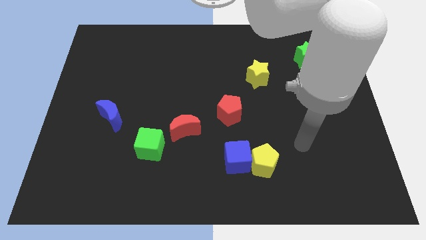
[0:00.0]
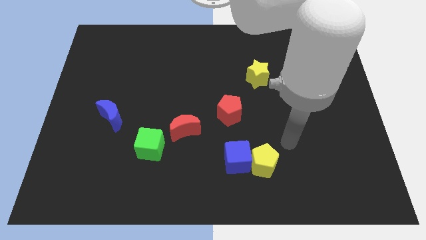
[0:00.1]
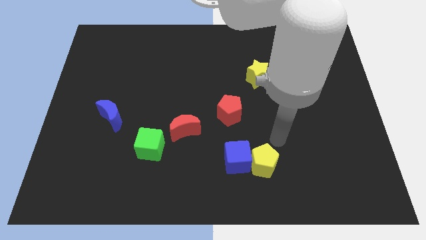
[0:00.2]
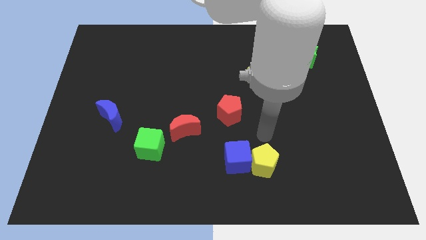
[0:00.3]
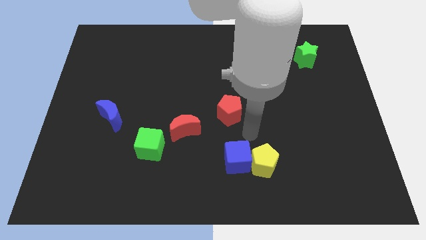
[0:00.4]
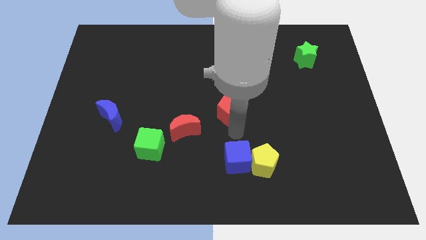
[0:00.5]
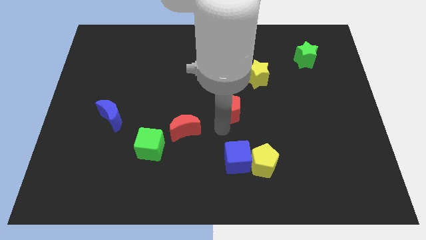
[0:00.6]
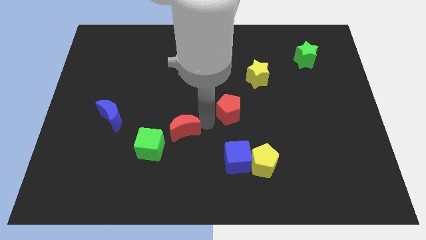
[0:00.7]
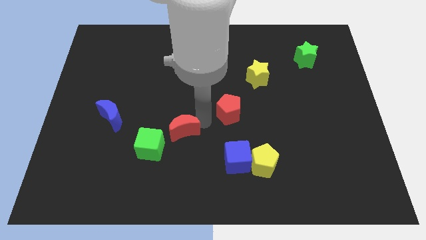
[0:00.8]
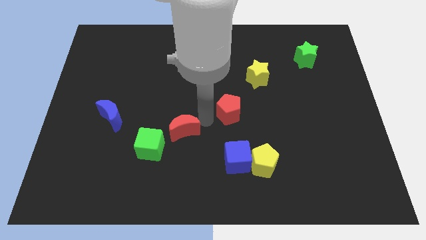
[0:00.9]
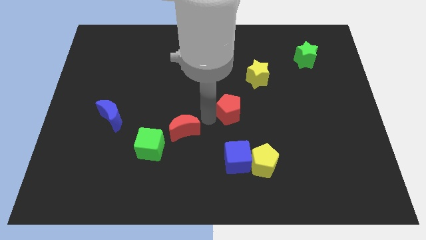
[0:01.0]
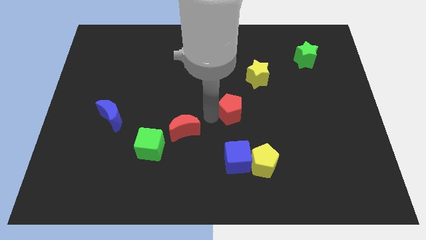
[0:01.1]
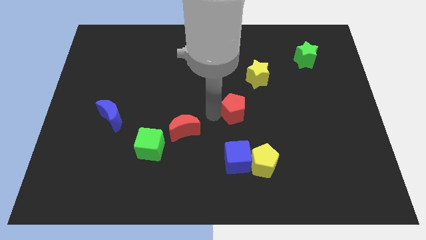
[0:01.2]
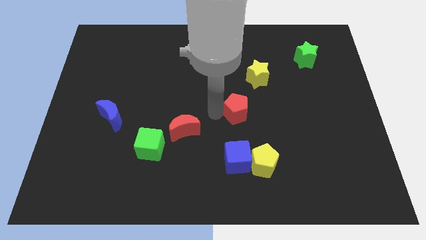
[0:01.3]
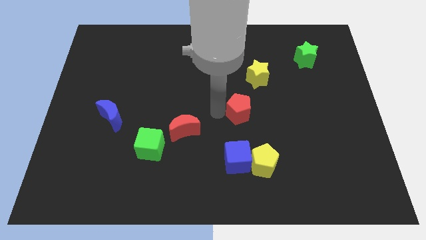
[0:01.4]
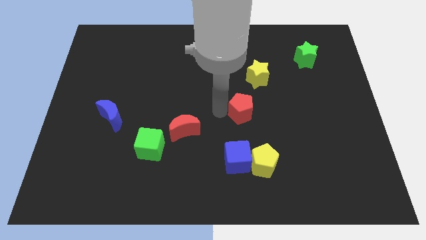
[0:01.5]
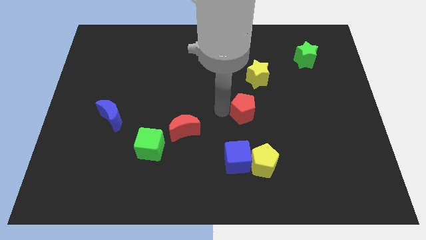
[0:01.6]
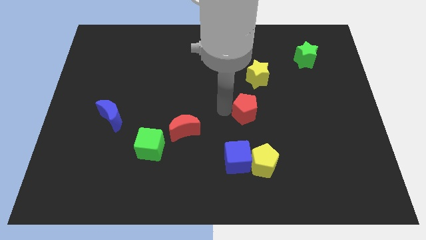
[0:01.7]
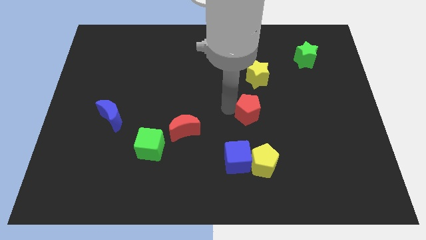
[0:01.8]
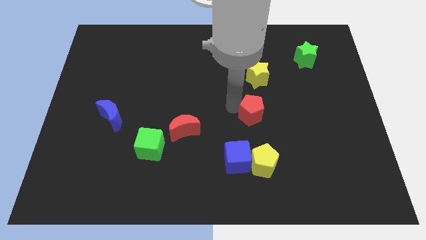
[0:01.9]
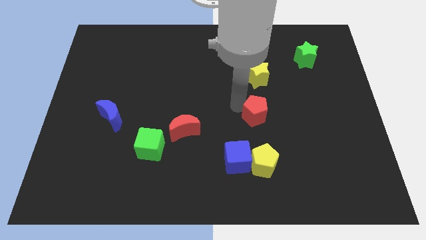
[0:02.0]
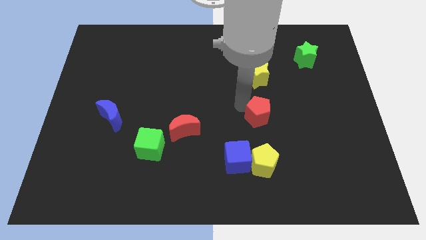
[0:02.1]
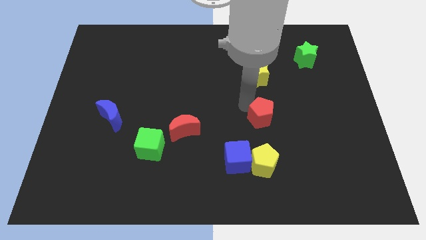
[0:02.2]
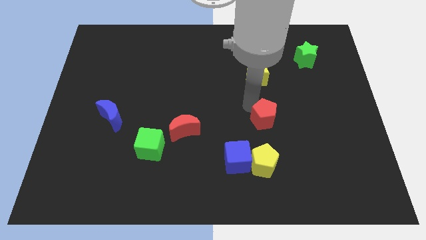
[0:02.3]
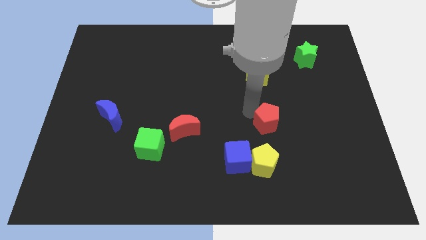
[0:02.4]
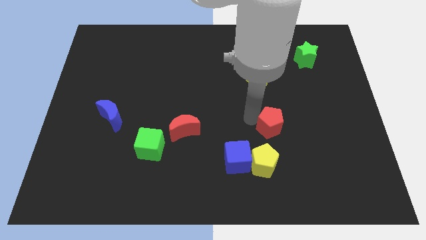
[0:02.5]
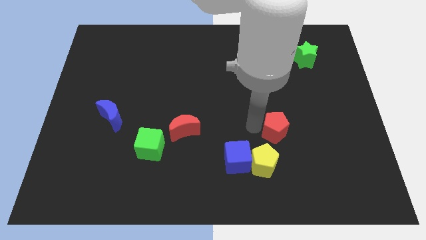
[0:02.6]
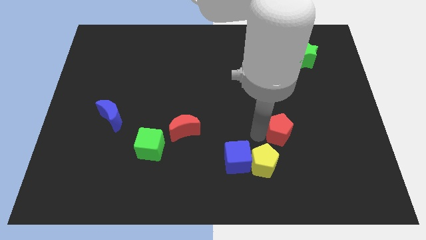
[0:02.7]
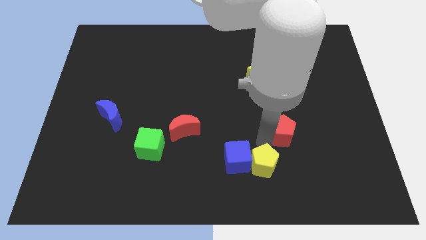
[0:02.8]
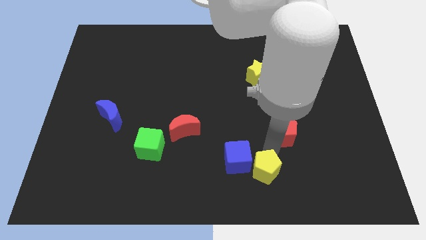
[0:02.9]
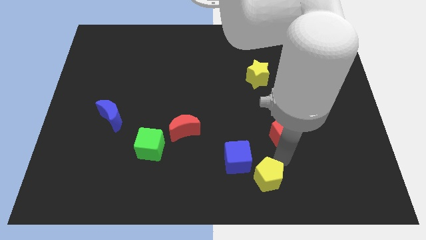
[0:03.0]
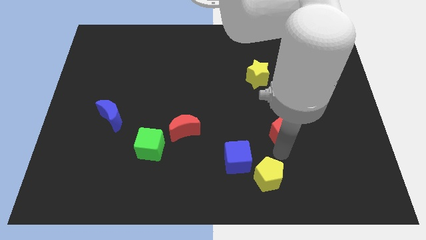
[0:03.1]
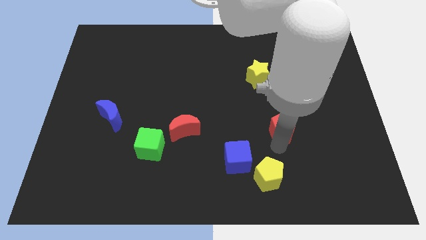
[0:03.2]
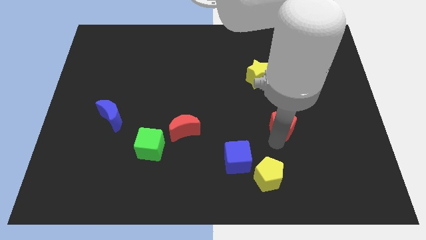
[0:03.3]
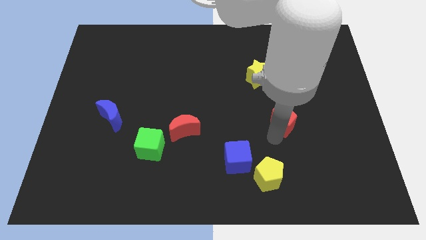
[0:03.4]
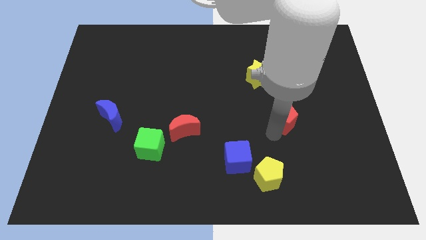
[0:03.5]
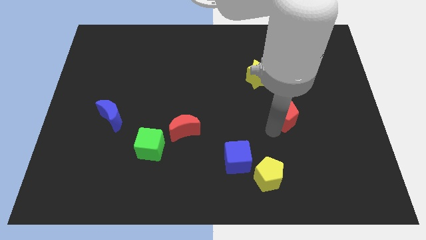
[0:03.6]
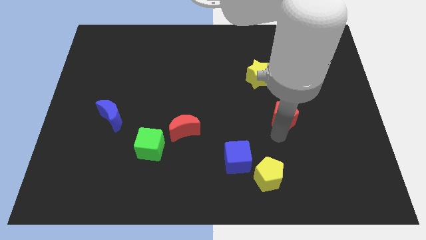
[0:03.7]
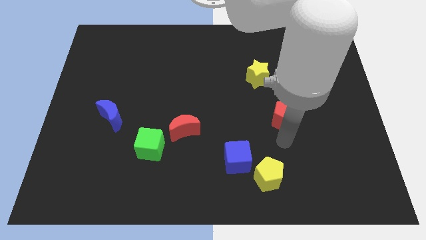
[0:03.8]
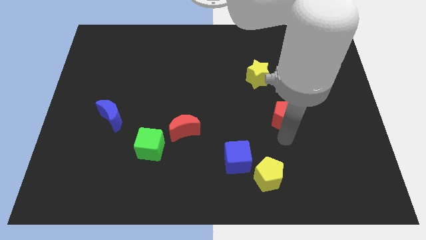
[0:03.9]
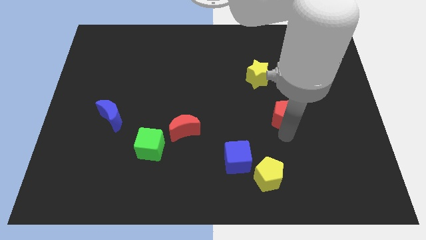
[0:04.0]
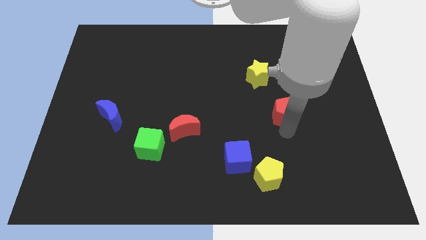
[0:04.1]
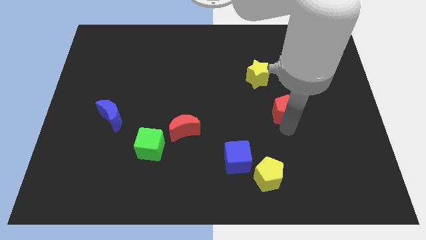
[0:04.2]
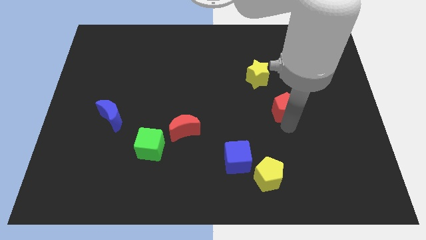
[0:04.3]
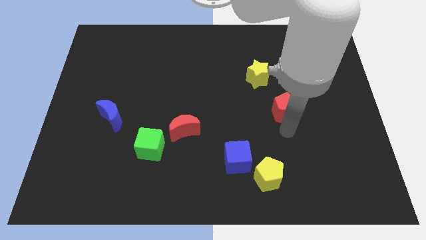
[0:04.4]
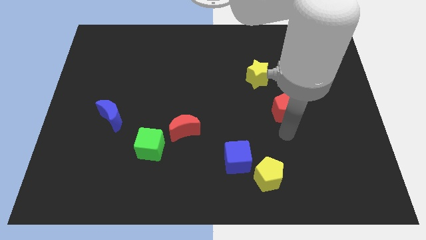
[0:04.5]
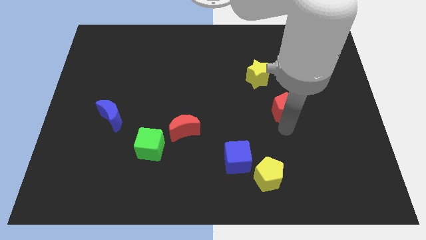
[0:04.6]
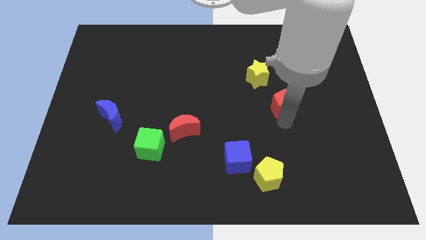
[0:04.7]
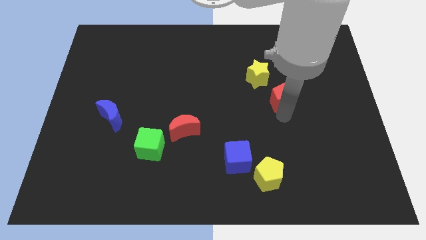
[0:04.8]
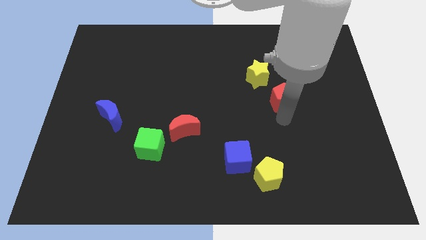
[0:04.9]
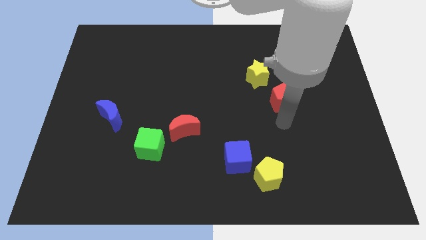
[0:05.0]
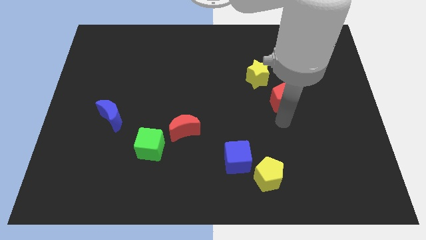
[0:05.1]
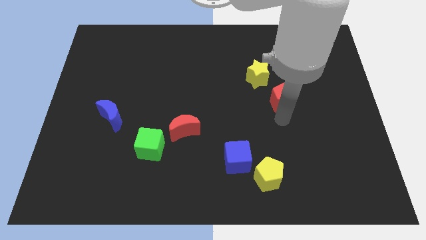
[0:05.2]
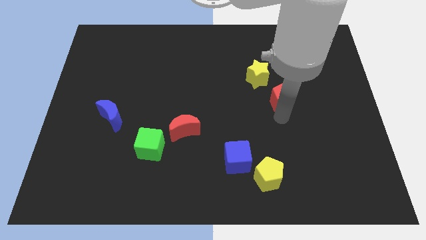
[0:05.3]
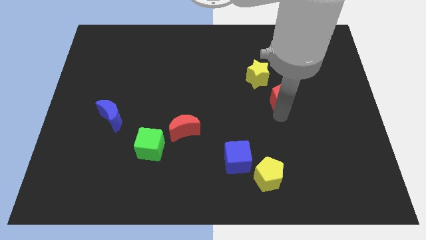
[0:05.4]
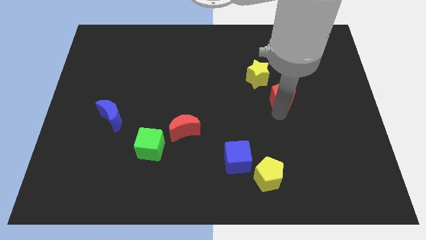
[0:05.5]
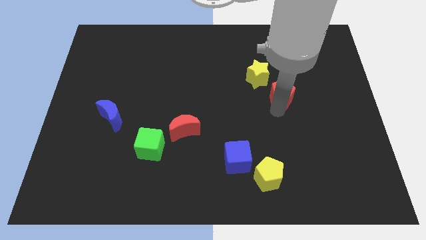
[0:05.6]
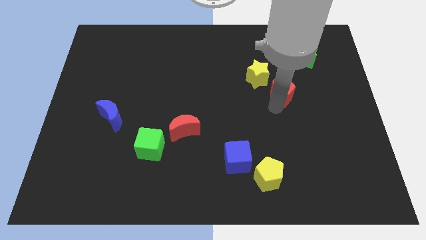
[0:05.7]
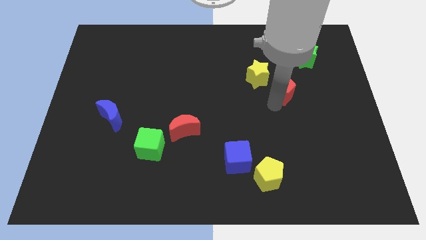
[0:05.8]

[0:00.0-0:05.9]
slide the red pentagon to the right side of the yellow star

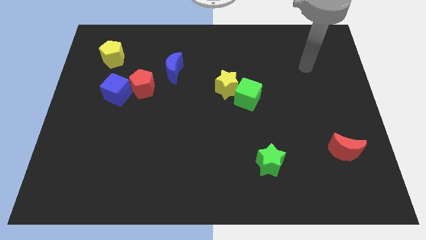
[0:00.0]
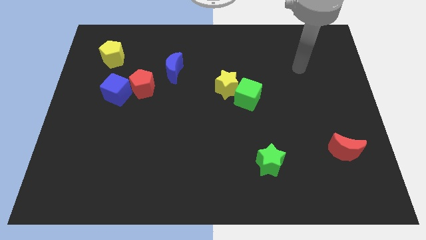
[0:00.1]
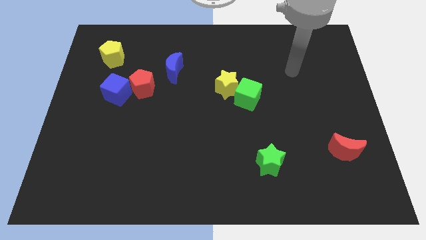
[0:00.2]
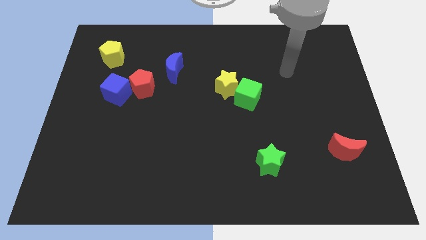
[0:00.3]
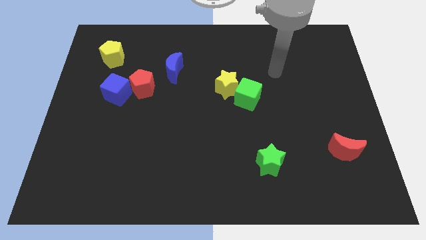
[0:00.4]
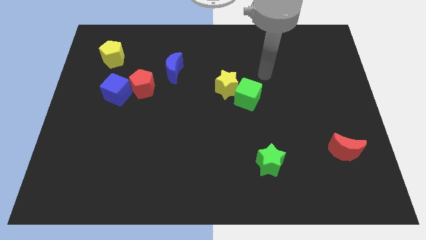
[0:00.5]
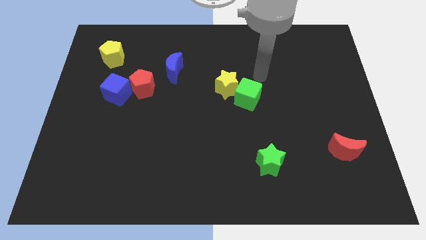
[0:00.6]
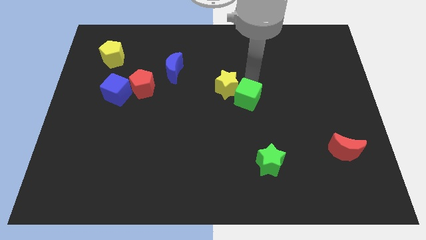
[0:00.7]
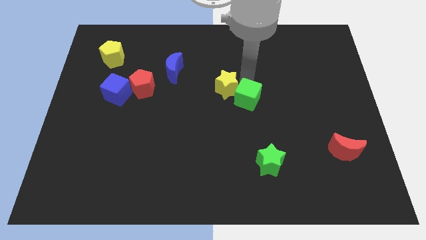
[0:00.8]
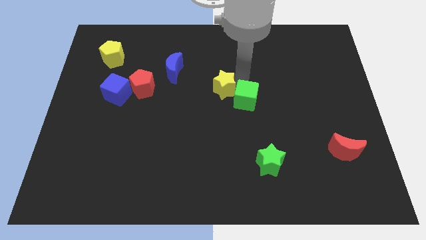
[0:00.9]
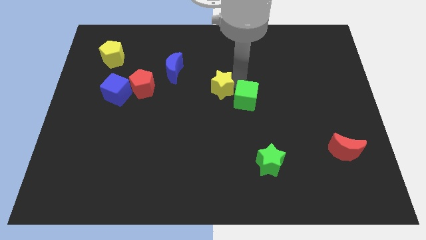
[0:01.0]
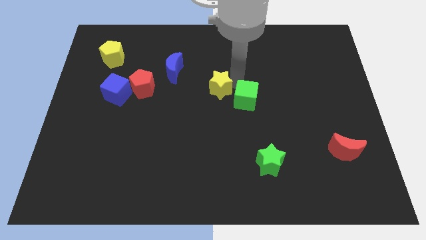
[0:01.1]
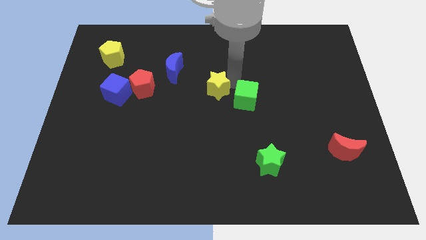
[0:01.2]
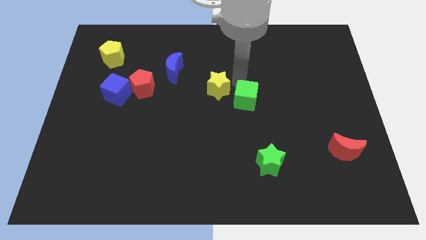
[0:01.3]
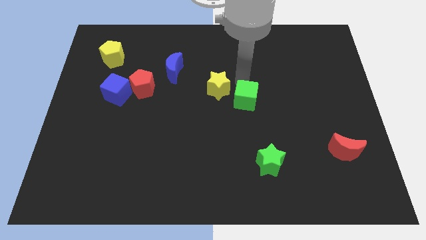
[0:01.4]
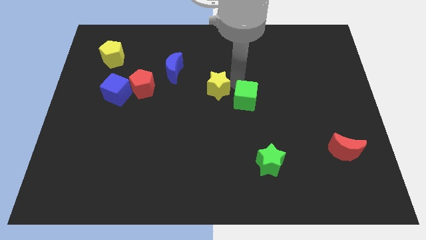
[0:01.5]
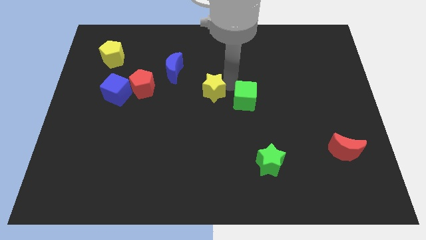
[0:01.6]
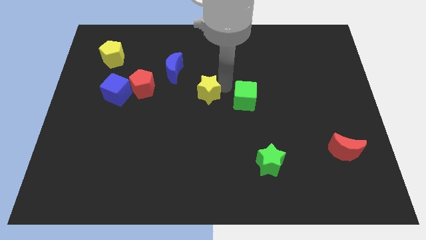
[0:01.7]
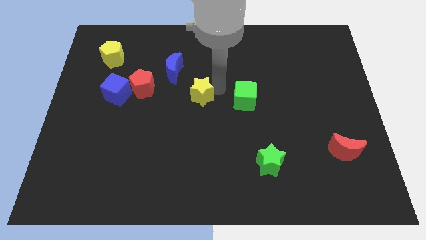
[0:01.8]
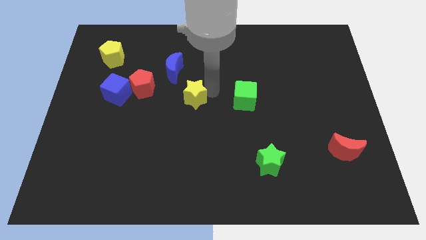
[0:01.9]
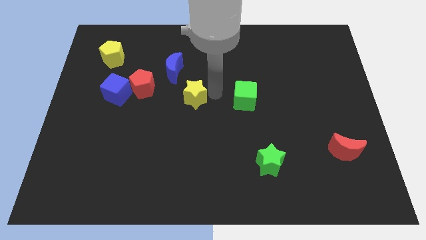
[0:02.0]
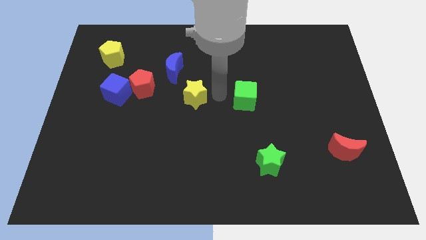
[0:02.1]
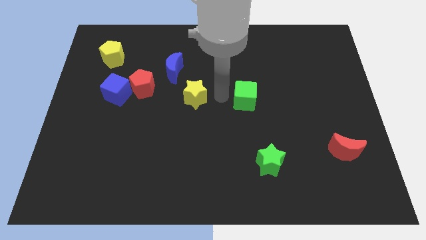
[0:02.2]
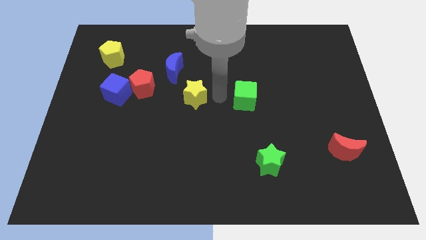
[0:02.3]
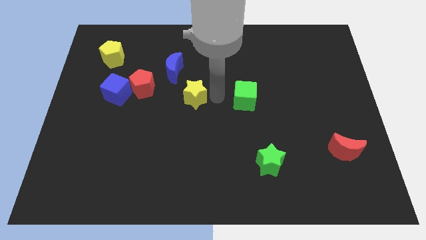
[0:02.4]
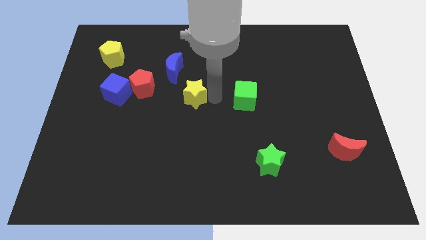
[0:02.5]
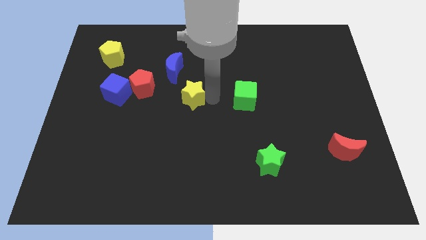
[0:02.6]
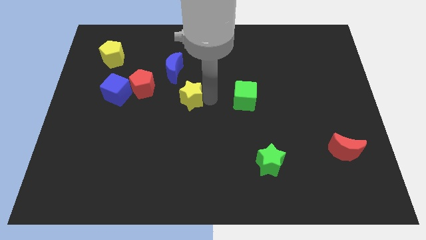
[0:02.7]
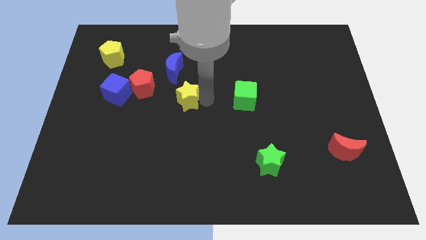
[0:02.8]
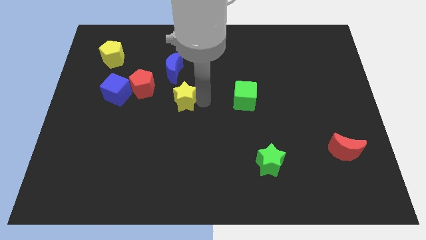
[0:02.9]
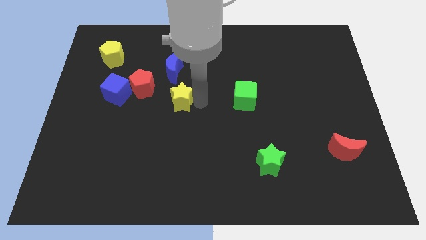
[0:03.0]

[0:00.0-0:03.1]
slide the yellow star to the right of the blue cube
